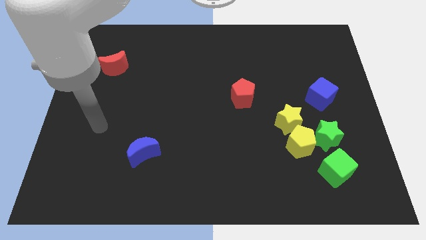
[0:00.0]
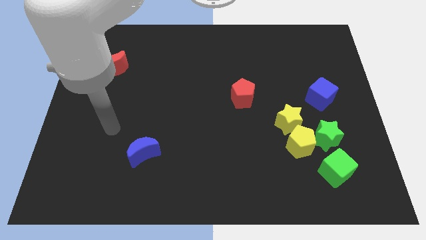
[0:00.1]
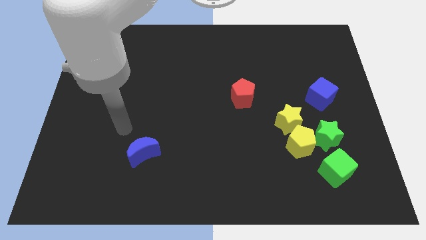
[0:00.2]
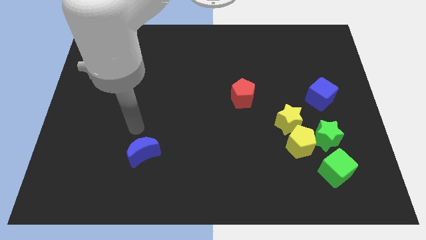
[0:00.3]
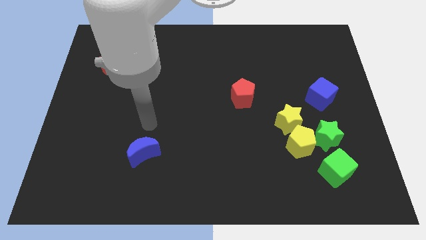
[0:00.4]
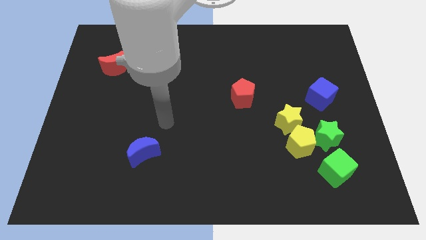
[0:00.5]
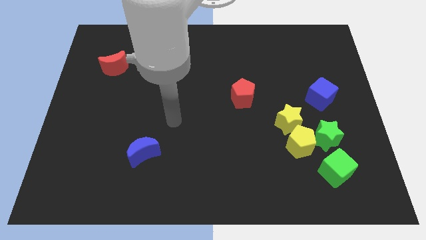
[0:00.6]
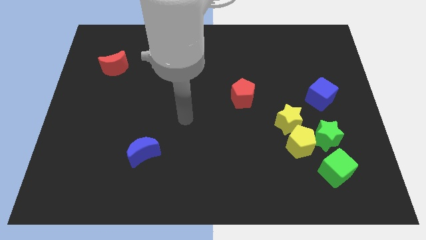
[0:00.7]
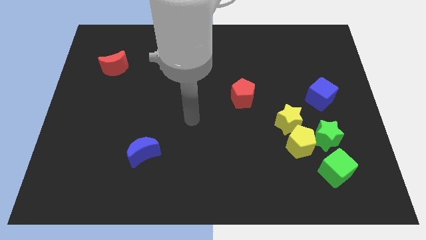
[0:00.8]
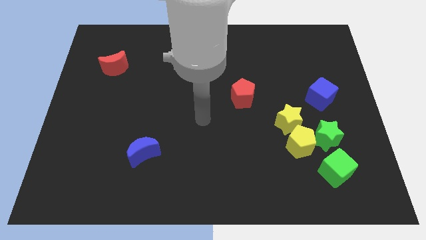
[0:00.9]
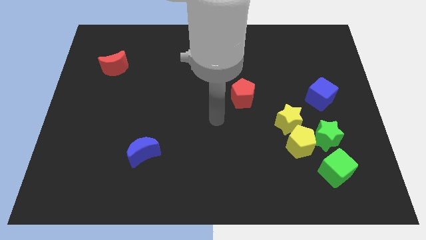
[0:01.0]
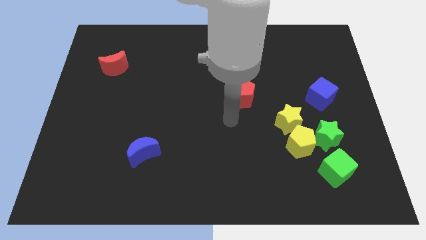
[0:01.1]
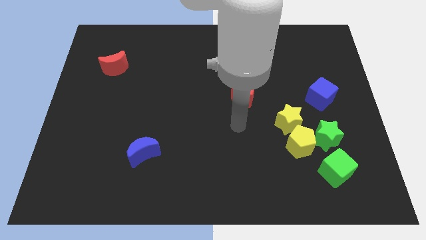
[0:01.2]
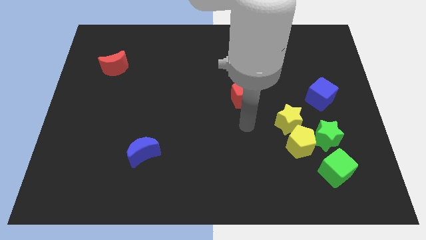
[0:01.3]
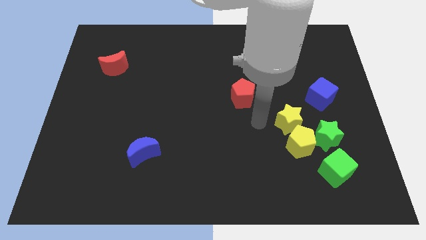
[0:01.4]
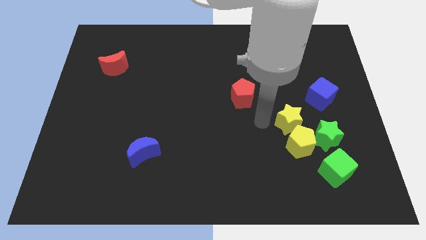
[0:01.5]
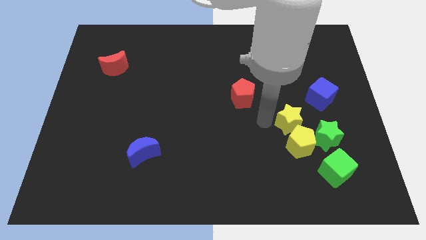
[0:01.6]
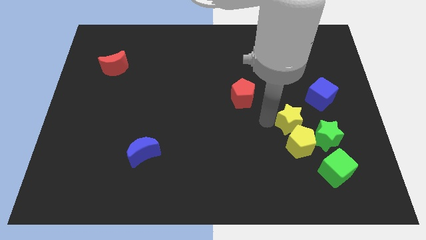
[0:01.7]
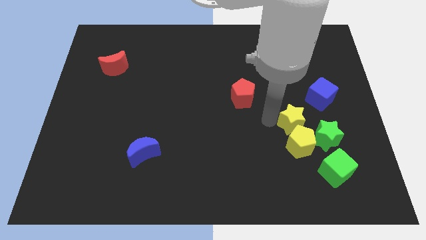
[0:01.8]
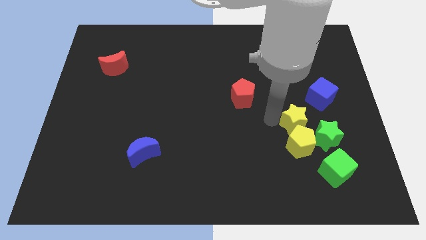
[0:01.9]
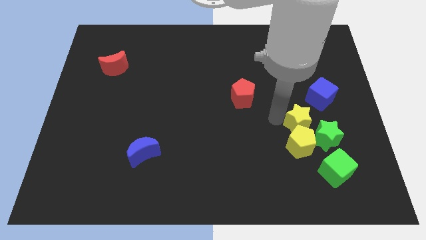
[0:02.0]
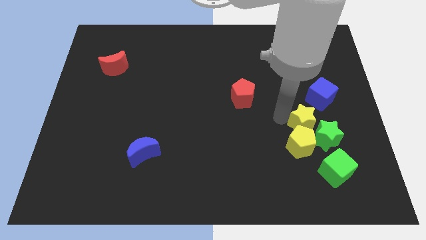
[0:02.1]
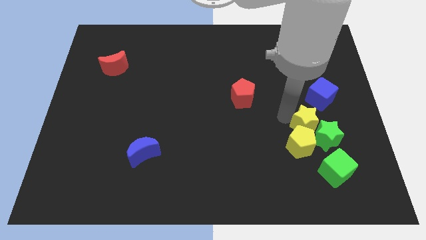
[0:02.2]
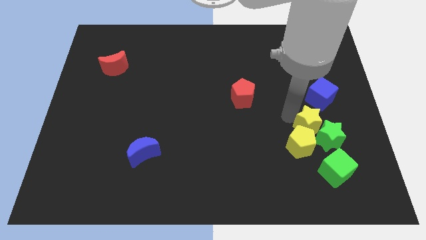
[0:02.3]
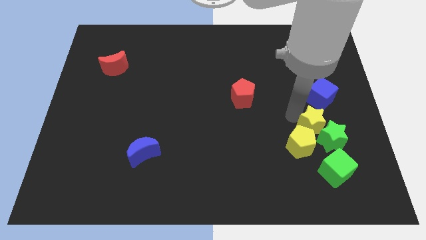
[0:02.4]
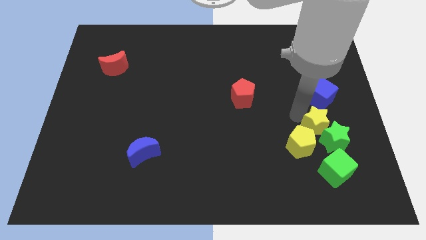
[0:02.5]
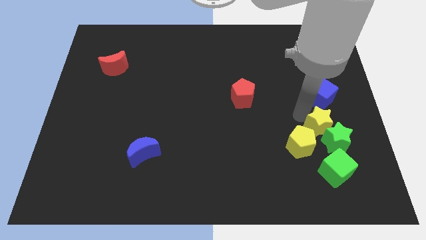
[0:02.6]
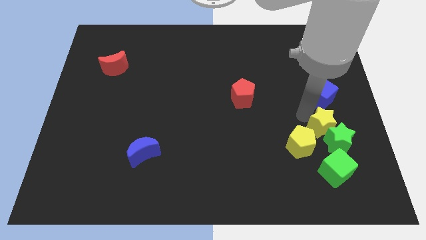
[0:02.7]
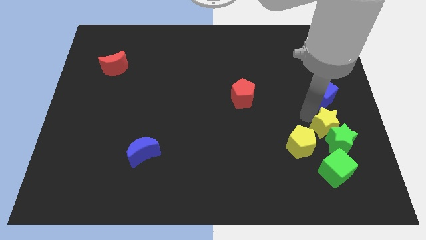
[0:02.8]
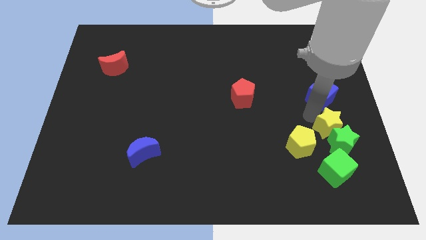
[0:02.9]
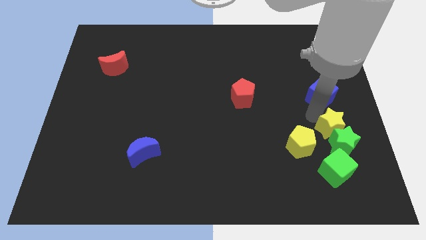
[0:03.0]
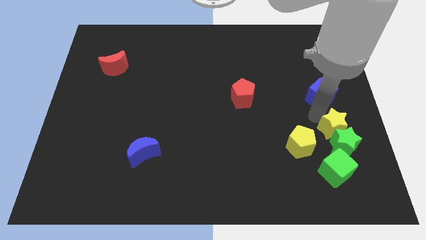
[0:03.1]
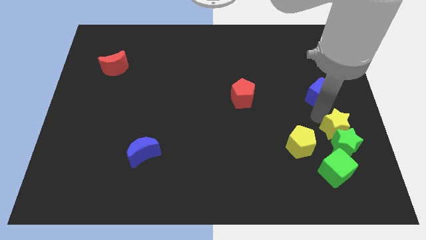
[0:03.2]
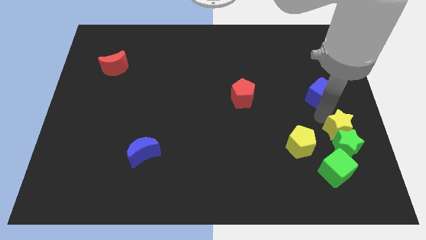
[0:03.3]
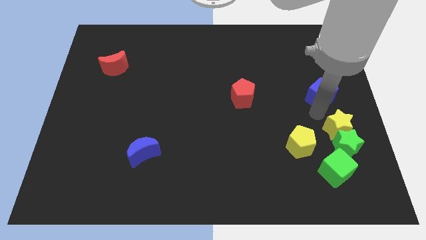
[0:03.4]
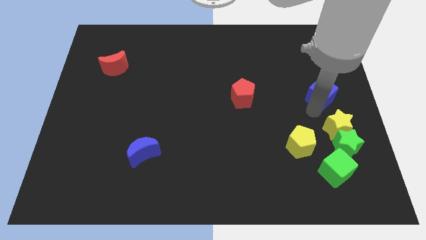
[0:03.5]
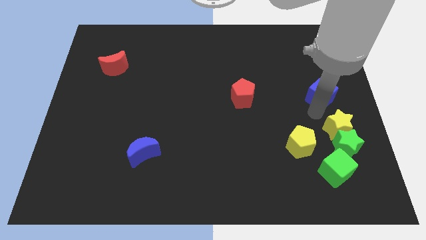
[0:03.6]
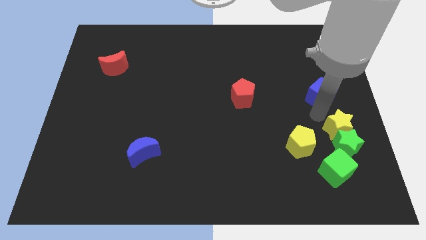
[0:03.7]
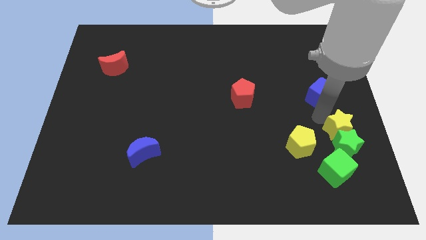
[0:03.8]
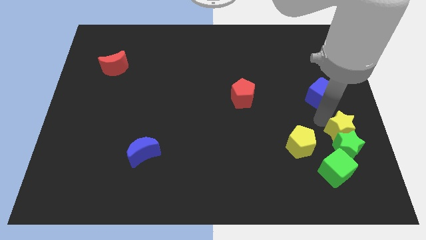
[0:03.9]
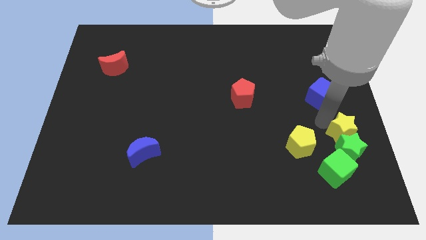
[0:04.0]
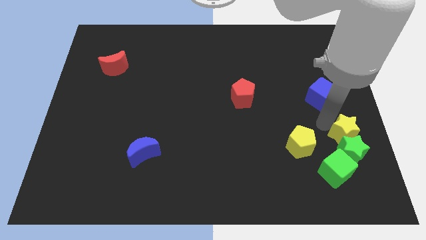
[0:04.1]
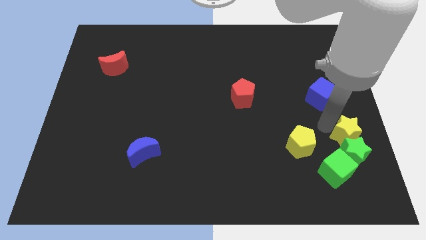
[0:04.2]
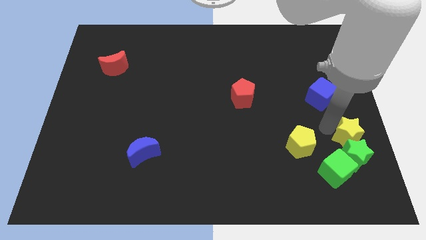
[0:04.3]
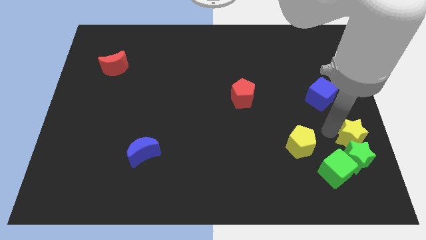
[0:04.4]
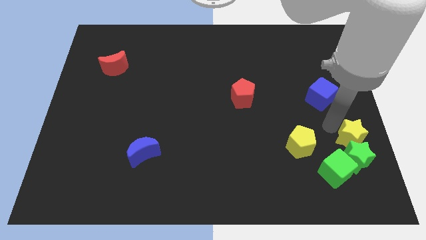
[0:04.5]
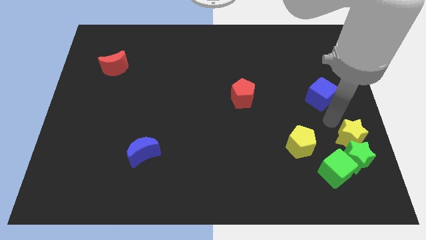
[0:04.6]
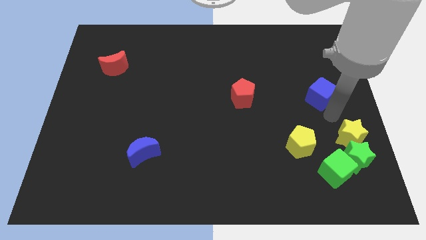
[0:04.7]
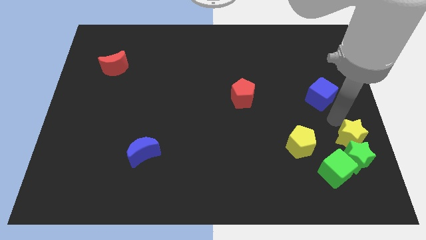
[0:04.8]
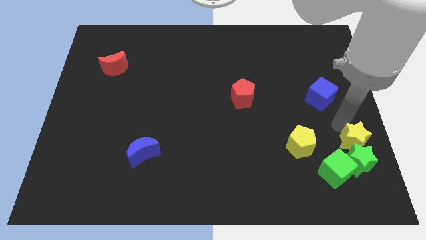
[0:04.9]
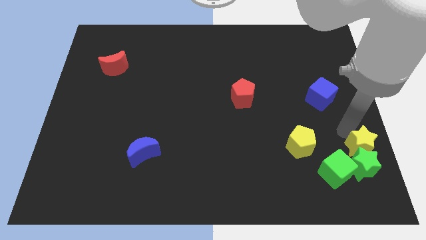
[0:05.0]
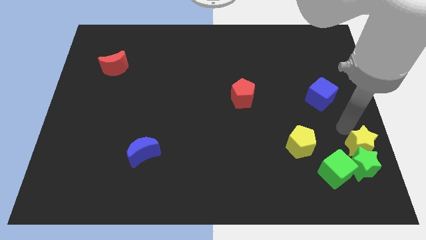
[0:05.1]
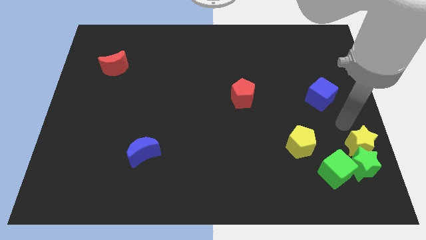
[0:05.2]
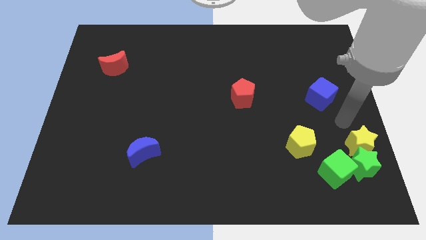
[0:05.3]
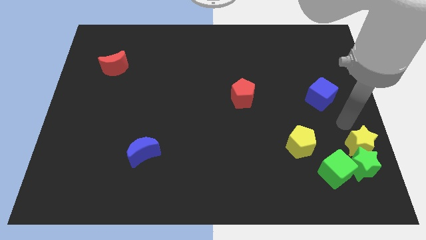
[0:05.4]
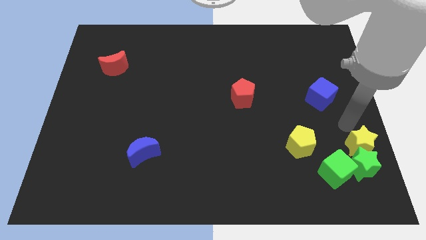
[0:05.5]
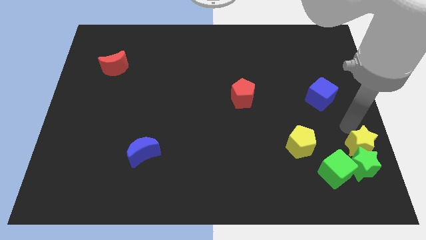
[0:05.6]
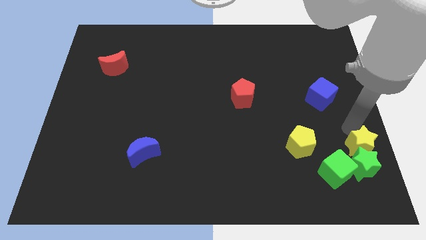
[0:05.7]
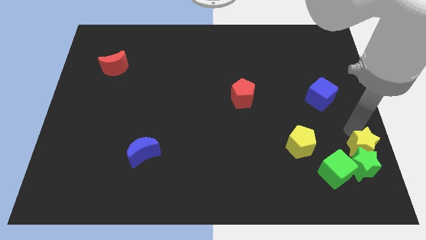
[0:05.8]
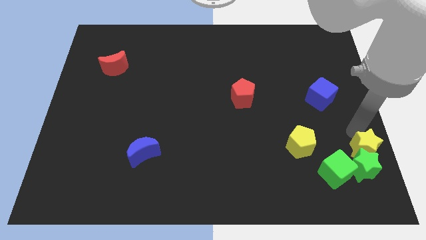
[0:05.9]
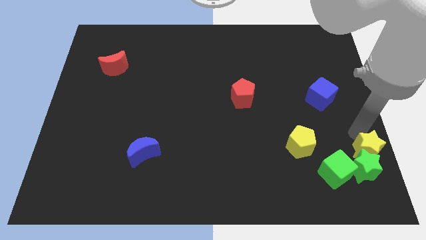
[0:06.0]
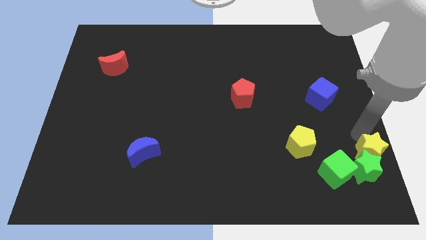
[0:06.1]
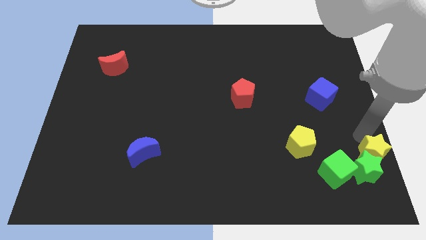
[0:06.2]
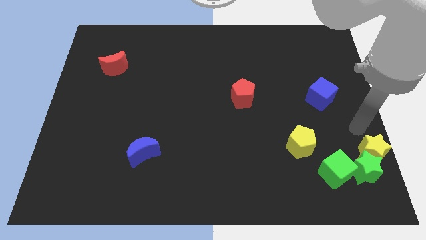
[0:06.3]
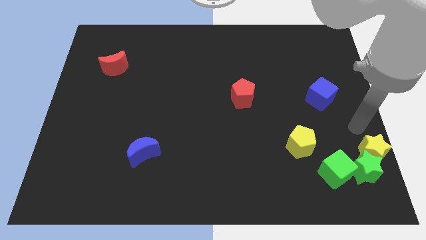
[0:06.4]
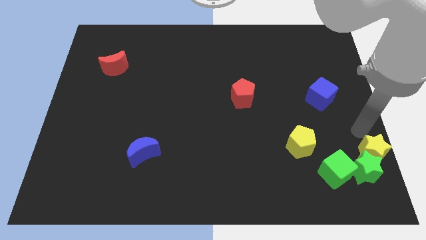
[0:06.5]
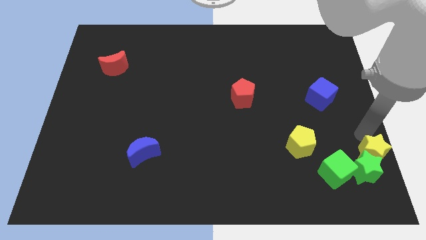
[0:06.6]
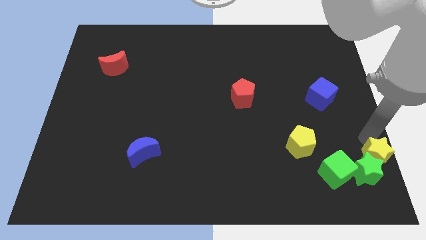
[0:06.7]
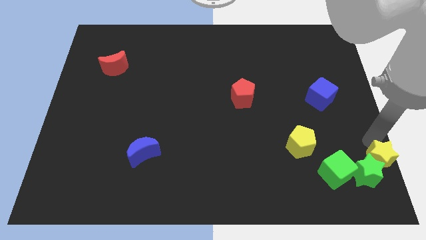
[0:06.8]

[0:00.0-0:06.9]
move the yellow star to the bottom right
